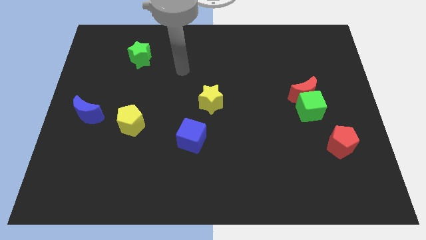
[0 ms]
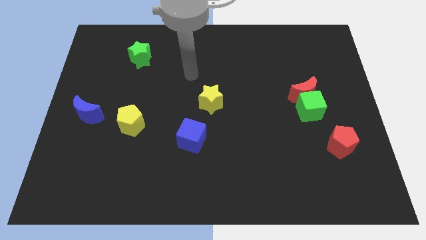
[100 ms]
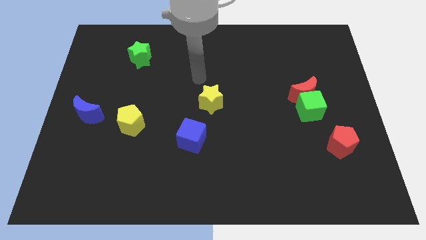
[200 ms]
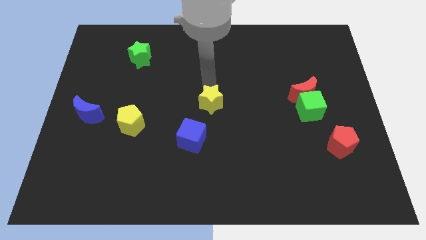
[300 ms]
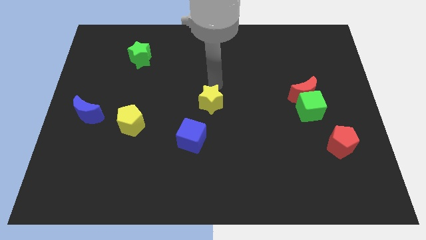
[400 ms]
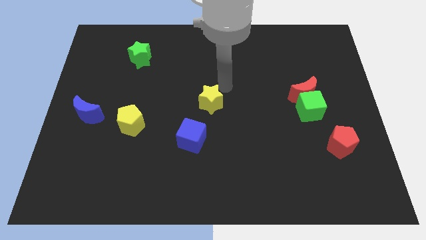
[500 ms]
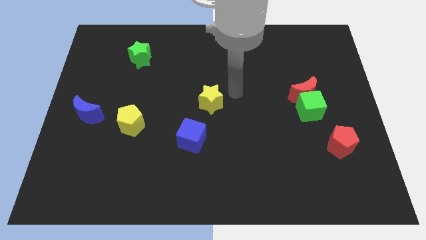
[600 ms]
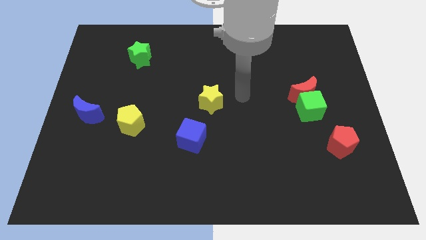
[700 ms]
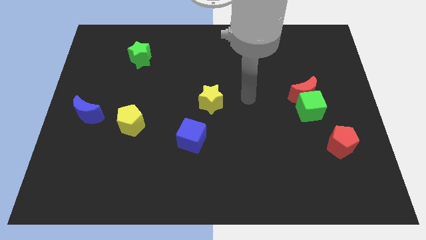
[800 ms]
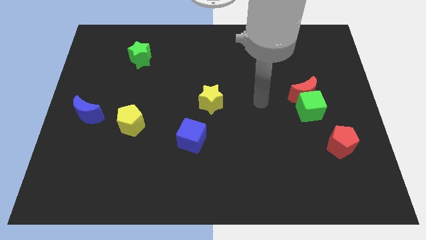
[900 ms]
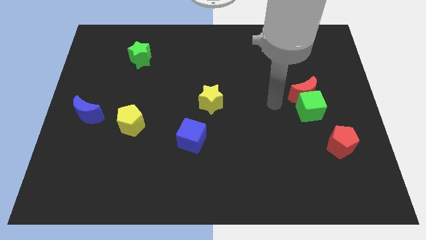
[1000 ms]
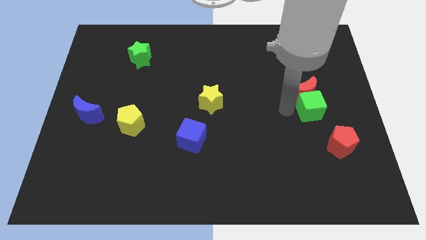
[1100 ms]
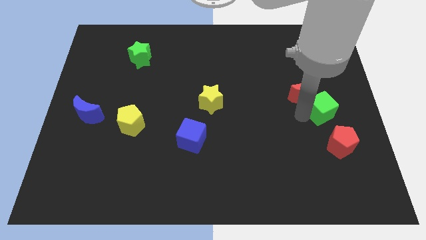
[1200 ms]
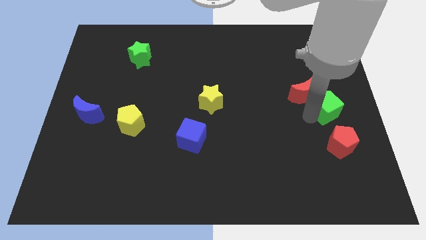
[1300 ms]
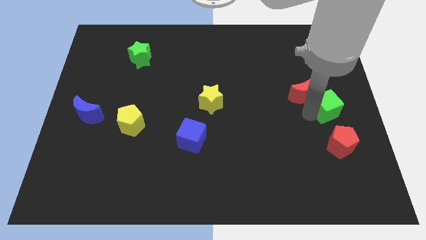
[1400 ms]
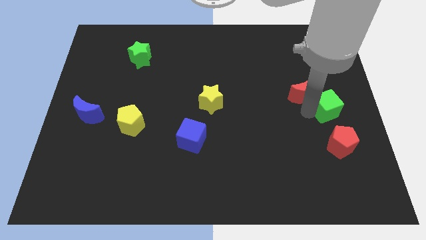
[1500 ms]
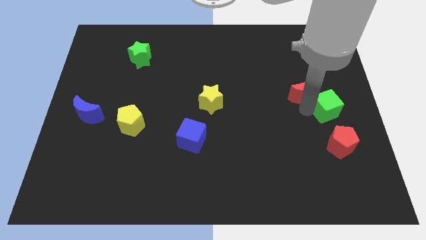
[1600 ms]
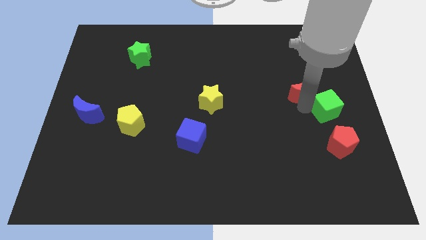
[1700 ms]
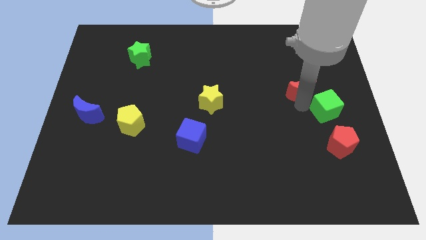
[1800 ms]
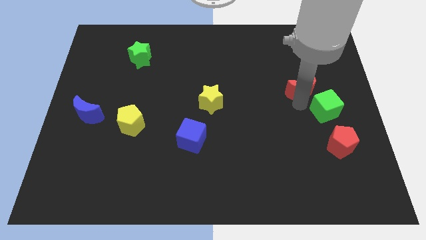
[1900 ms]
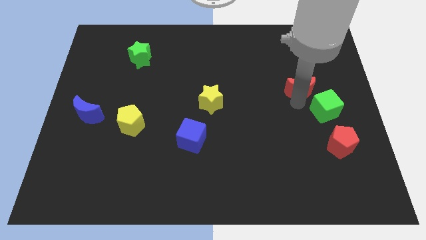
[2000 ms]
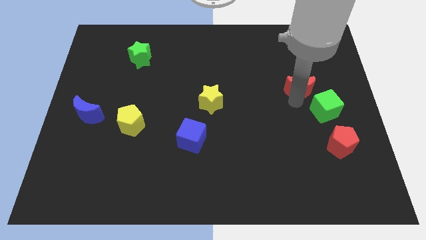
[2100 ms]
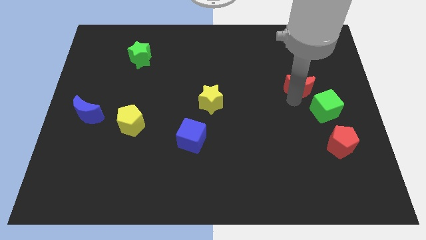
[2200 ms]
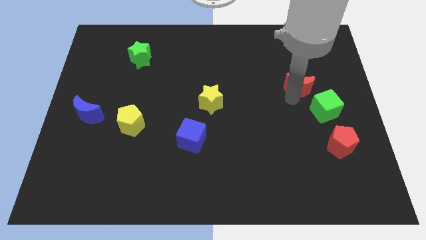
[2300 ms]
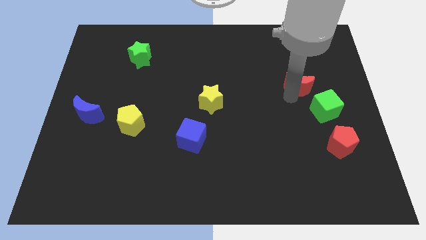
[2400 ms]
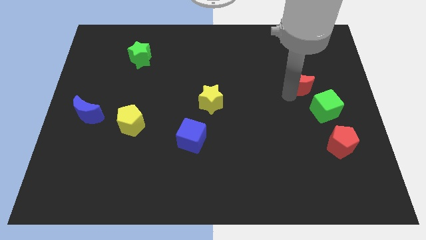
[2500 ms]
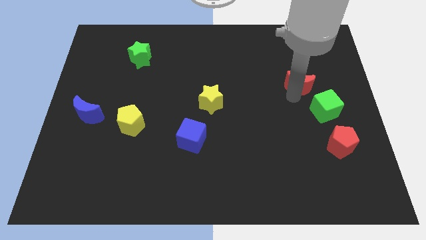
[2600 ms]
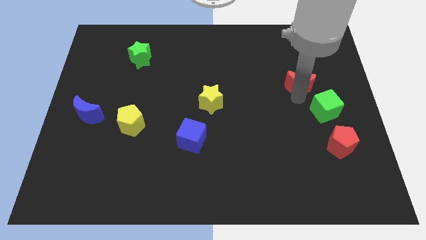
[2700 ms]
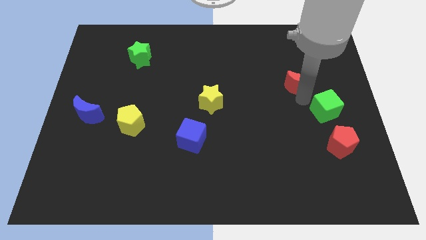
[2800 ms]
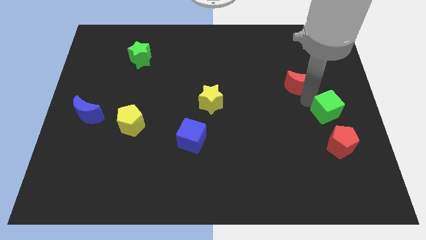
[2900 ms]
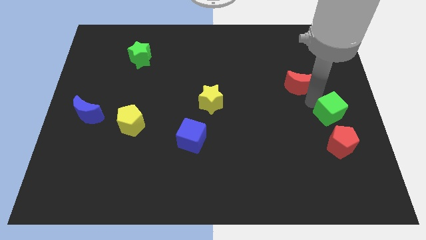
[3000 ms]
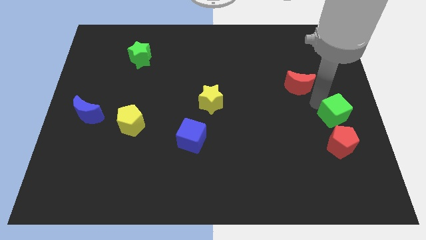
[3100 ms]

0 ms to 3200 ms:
move the red moon away from the green cube

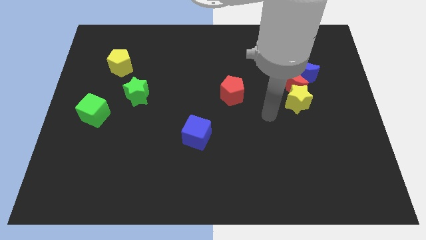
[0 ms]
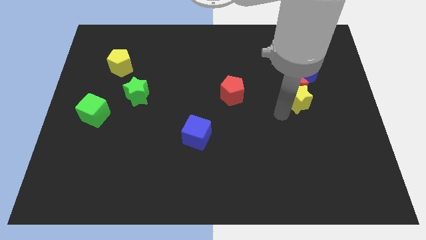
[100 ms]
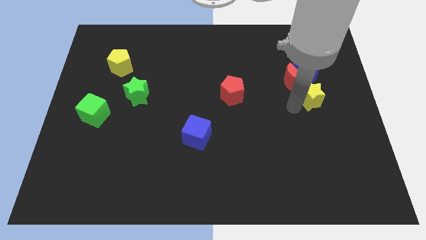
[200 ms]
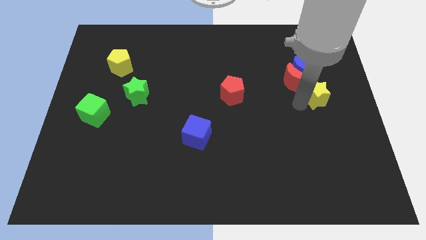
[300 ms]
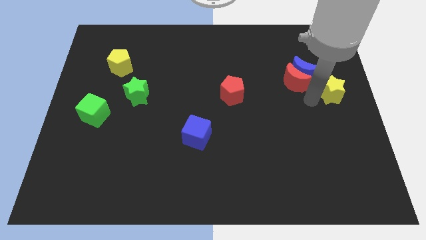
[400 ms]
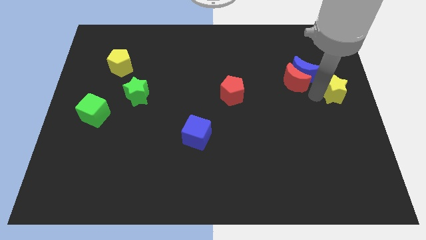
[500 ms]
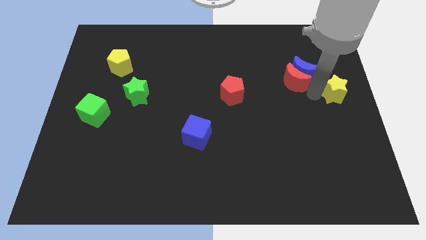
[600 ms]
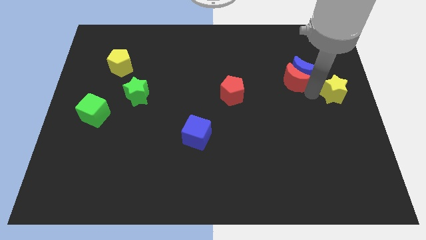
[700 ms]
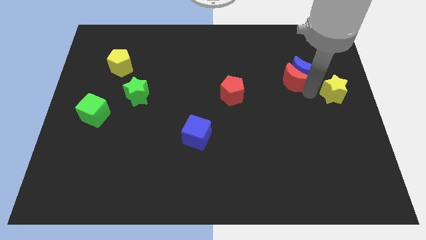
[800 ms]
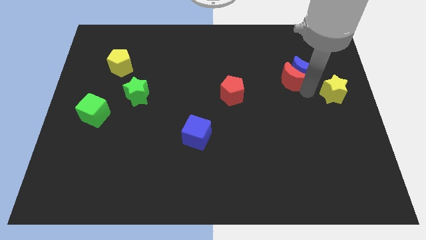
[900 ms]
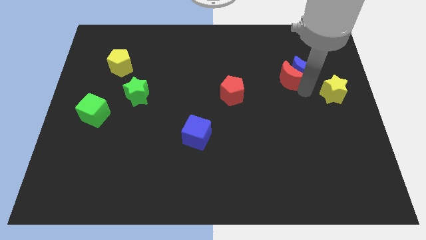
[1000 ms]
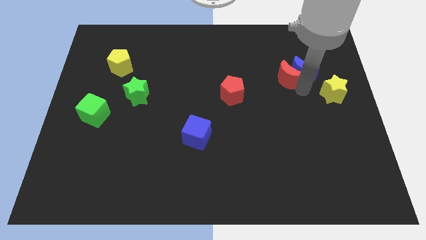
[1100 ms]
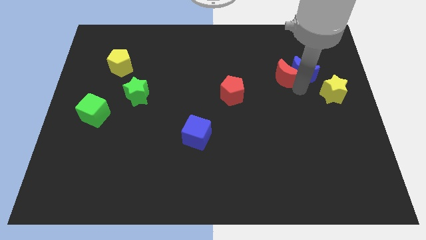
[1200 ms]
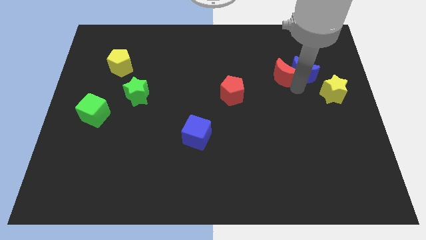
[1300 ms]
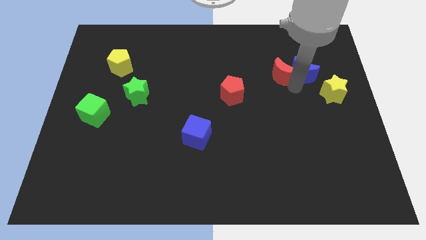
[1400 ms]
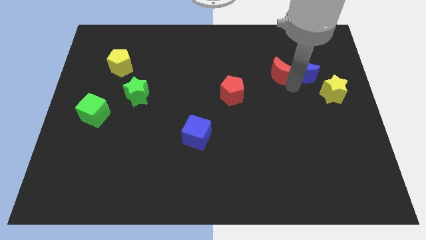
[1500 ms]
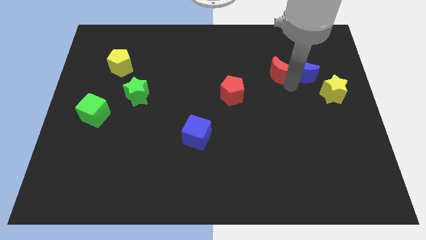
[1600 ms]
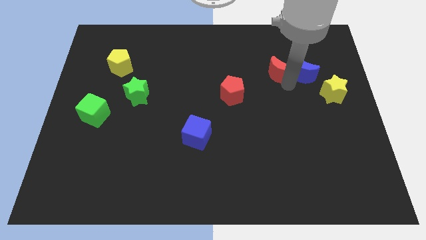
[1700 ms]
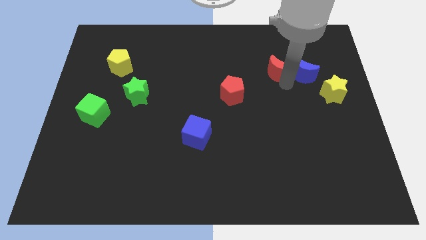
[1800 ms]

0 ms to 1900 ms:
pull the red moon apart from the blue moon and yellow star

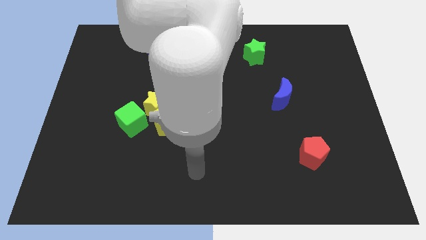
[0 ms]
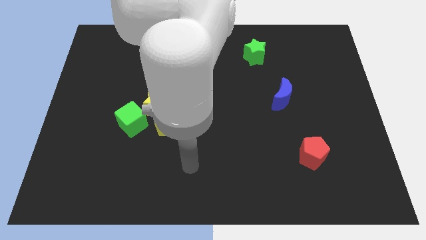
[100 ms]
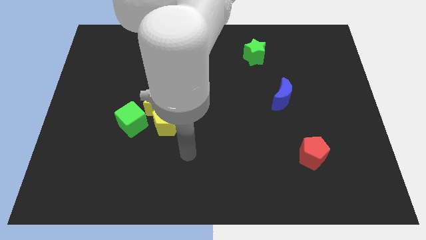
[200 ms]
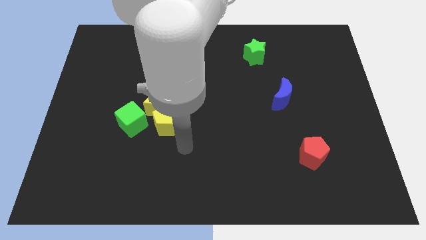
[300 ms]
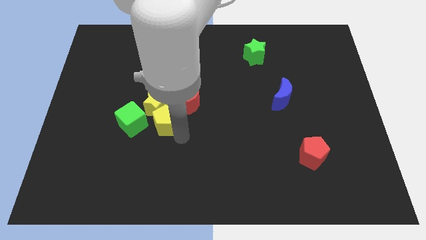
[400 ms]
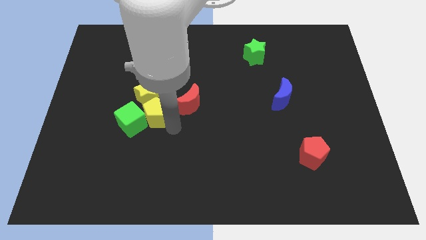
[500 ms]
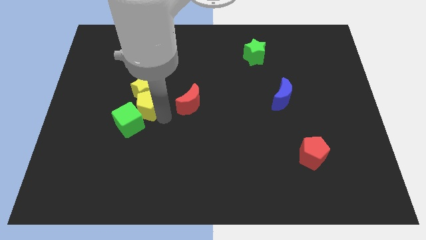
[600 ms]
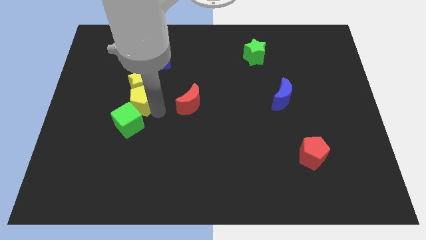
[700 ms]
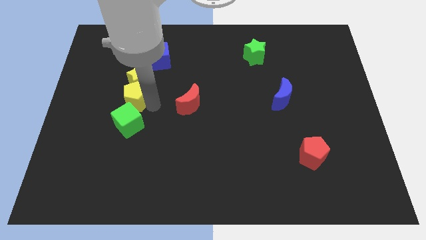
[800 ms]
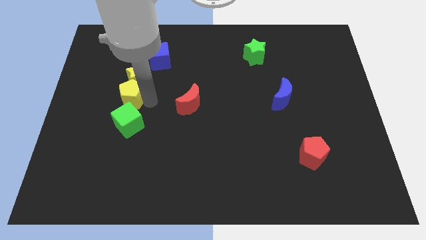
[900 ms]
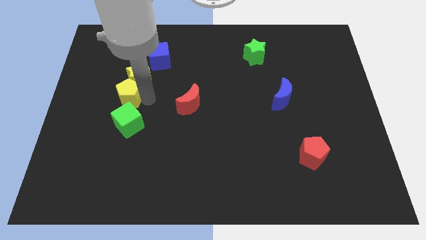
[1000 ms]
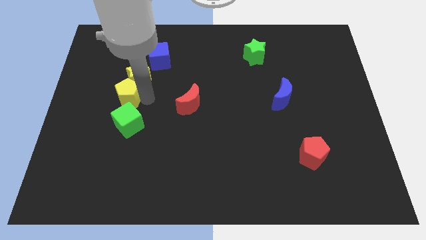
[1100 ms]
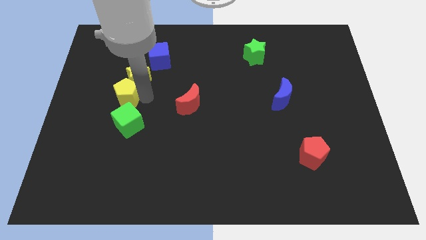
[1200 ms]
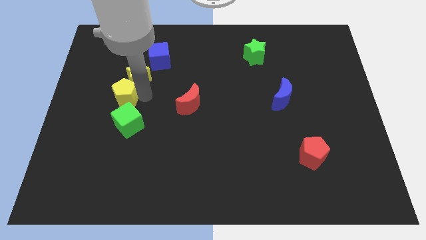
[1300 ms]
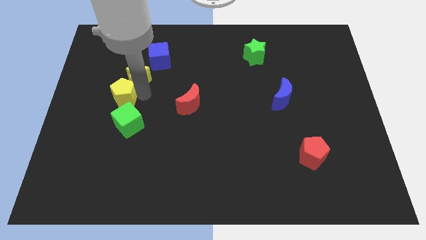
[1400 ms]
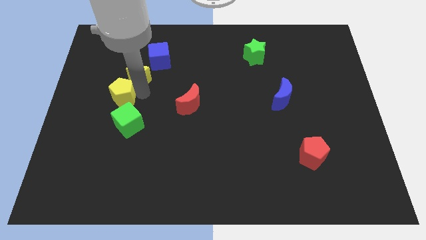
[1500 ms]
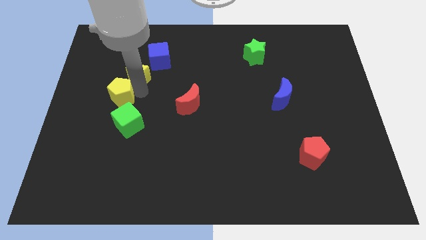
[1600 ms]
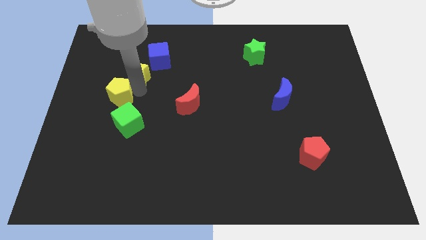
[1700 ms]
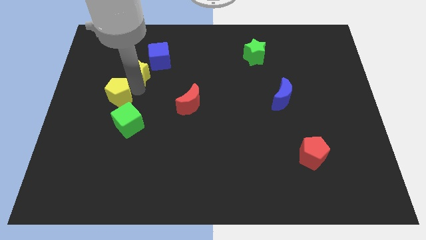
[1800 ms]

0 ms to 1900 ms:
pull the yellow star apart from the yellow pentagon, green cube, and red moon

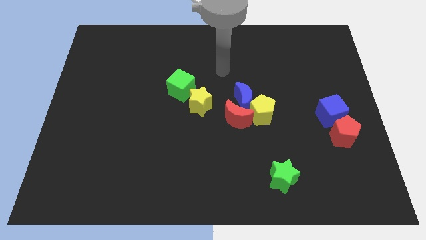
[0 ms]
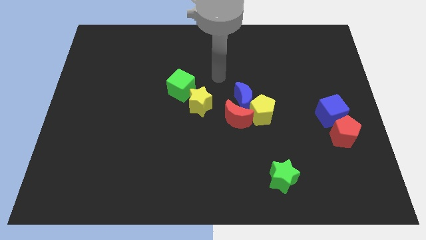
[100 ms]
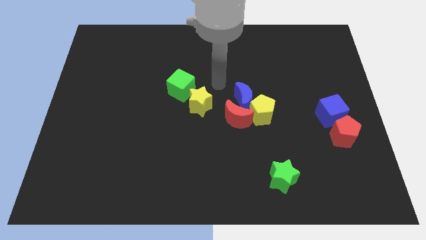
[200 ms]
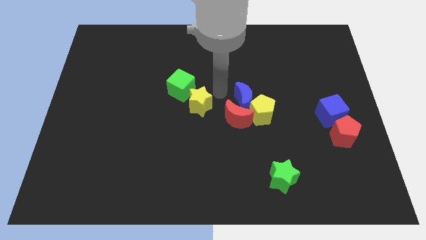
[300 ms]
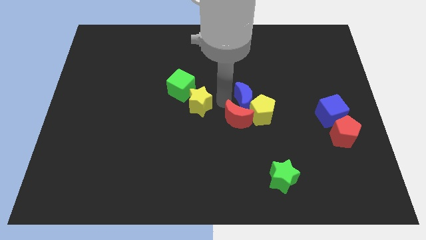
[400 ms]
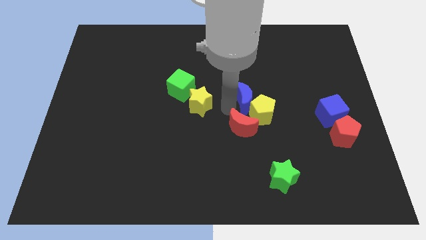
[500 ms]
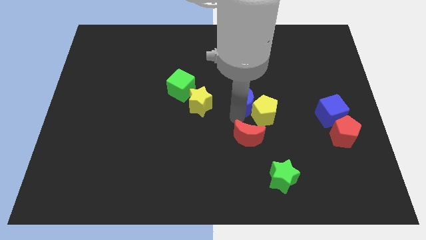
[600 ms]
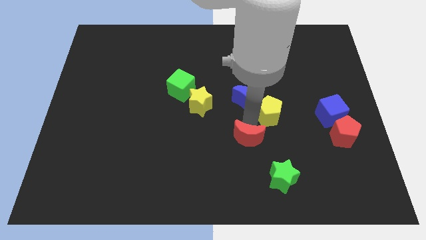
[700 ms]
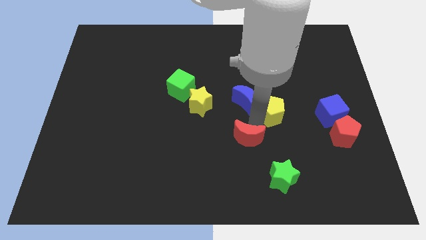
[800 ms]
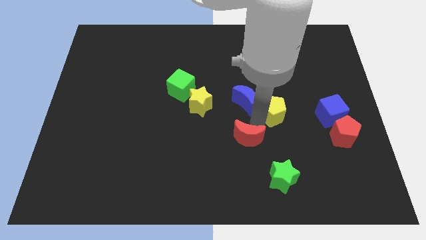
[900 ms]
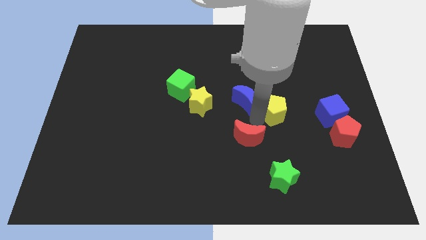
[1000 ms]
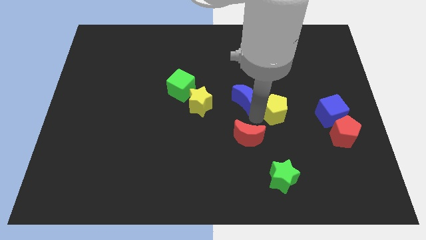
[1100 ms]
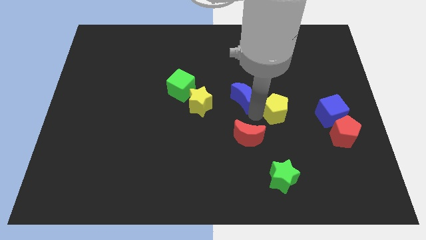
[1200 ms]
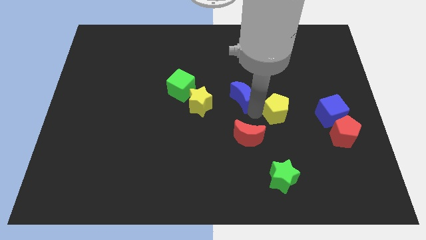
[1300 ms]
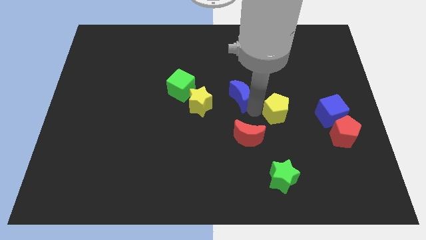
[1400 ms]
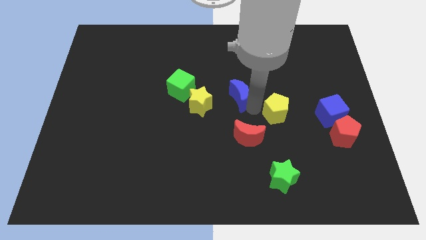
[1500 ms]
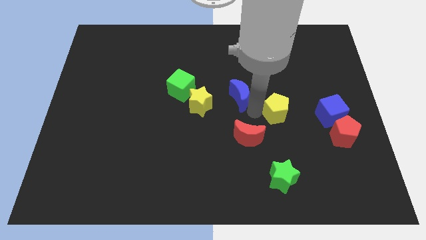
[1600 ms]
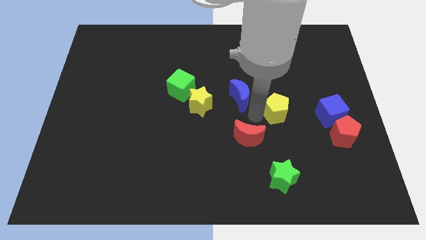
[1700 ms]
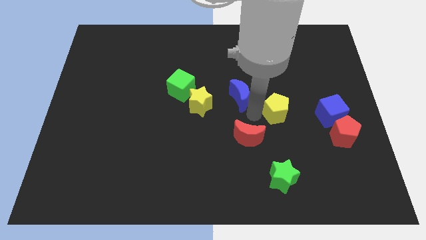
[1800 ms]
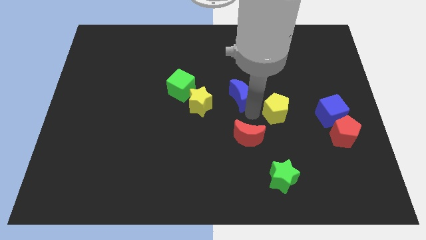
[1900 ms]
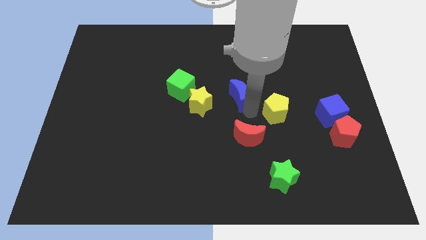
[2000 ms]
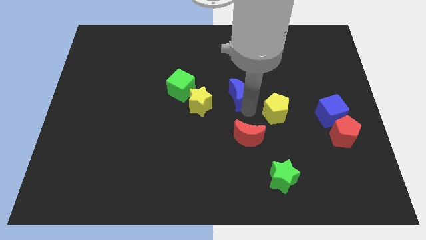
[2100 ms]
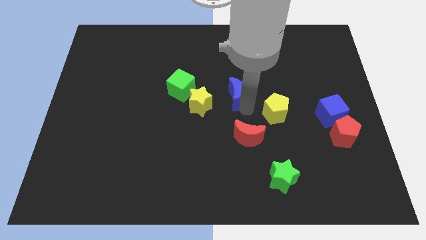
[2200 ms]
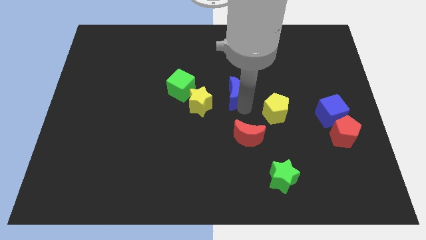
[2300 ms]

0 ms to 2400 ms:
pull the blue moon apart from the yellow pentagon and red moon

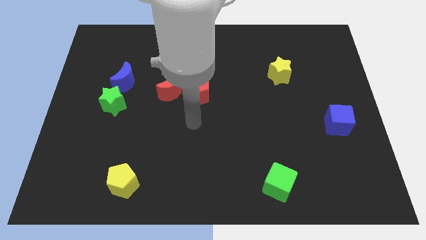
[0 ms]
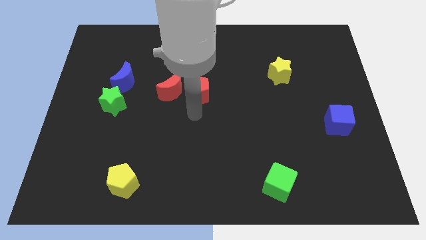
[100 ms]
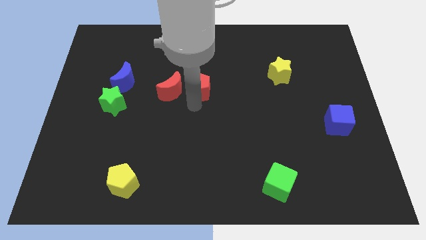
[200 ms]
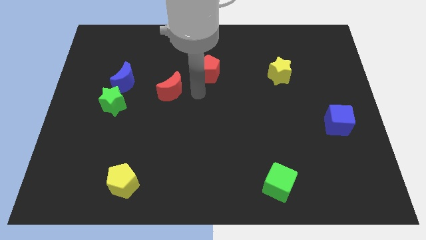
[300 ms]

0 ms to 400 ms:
separate the red moon from the red pentagon
